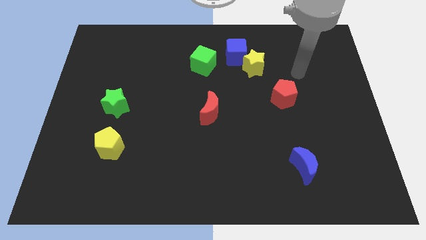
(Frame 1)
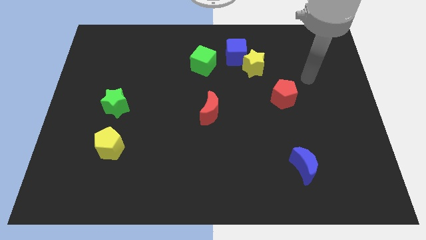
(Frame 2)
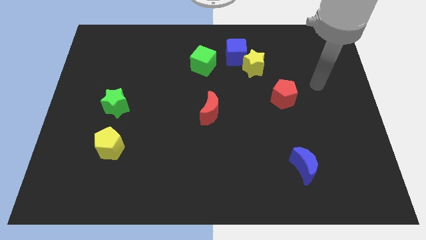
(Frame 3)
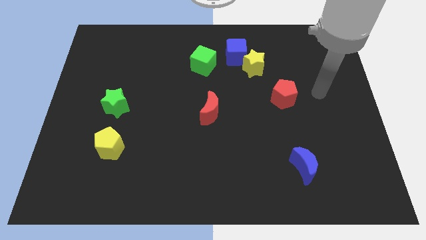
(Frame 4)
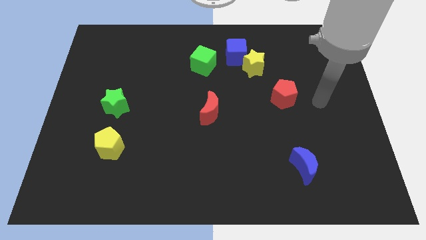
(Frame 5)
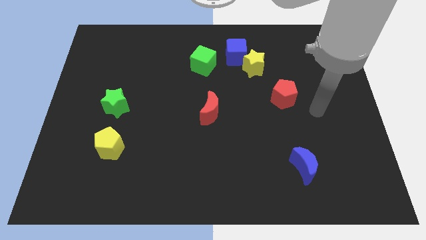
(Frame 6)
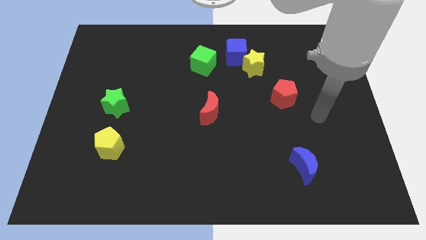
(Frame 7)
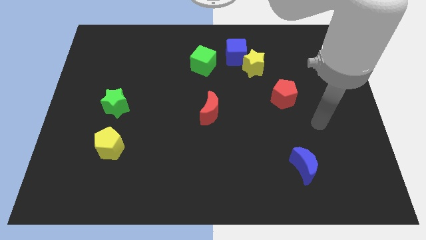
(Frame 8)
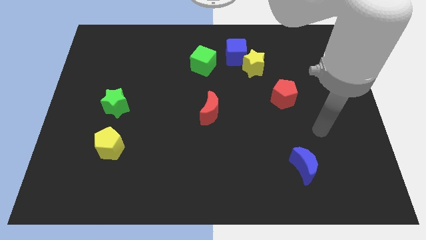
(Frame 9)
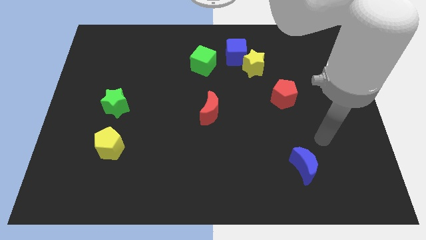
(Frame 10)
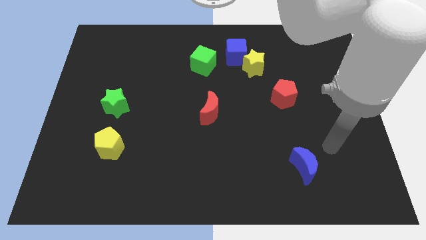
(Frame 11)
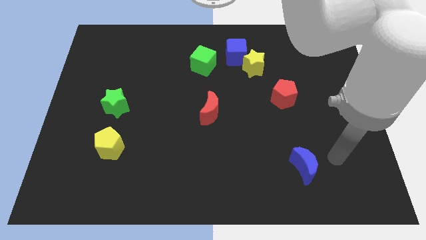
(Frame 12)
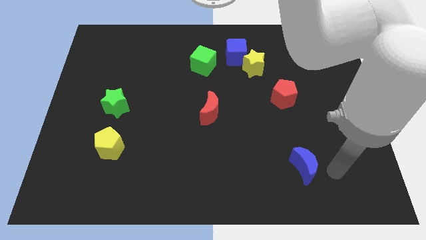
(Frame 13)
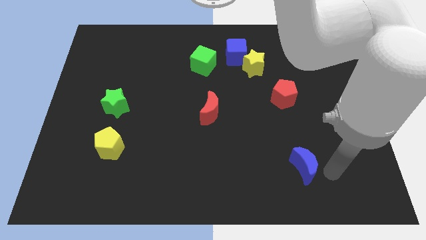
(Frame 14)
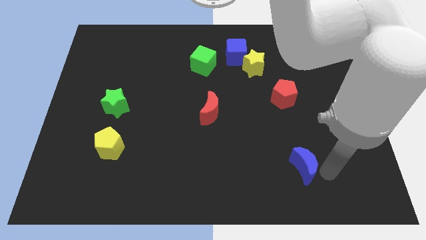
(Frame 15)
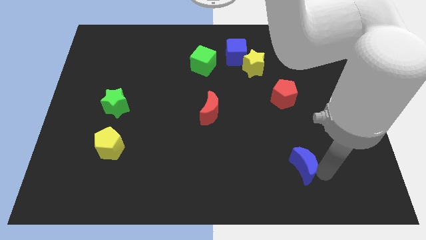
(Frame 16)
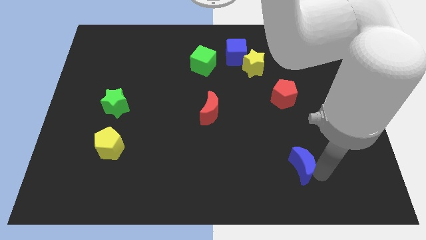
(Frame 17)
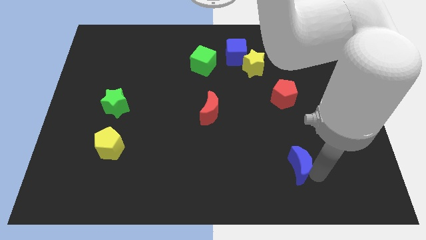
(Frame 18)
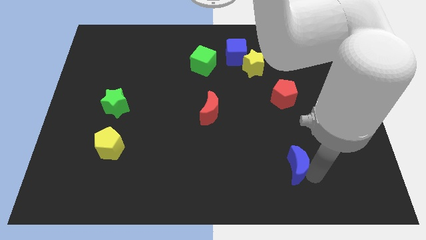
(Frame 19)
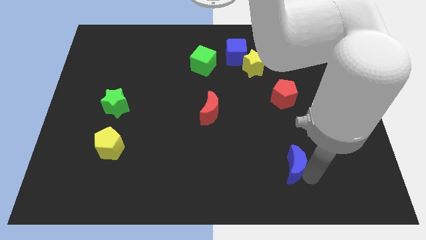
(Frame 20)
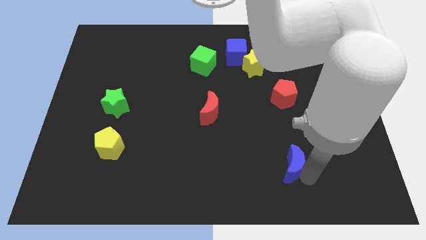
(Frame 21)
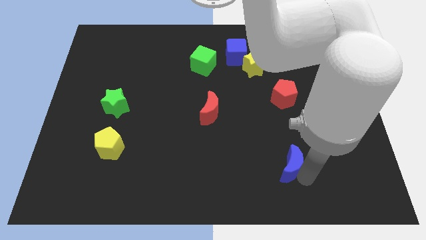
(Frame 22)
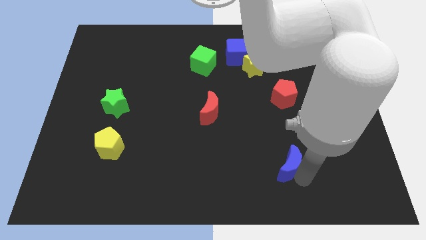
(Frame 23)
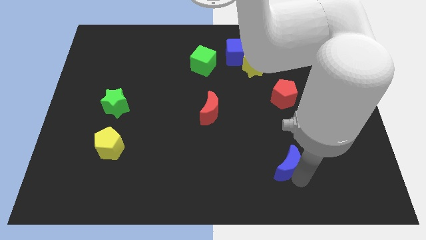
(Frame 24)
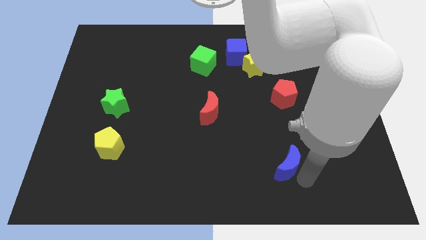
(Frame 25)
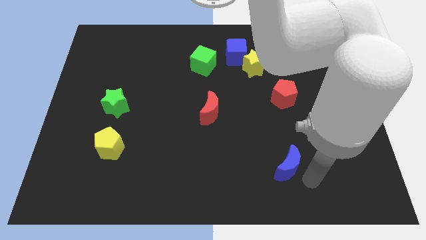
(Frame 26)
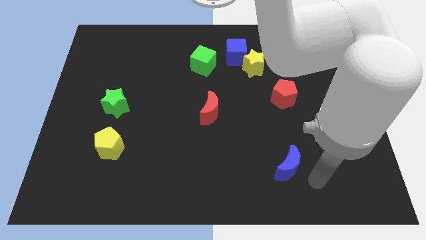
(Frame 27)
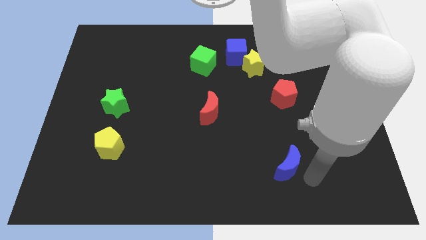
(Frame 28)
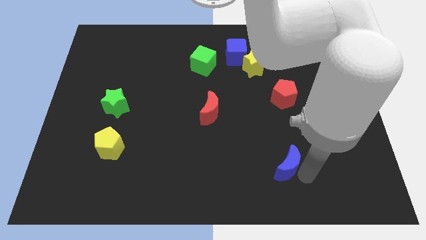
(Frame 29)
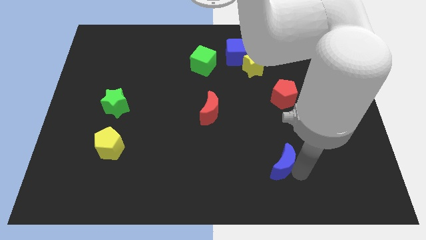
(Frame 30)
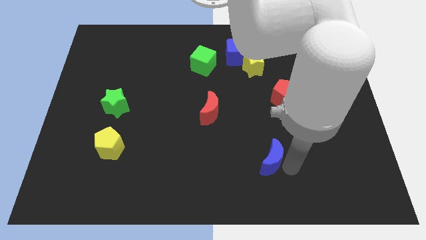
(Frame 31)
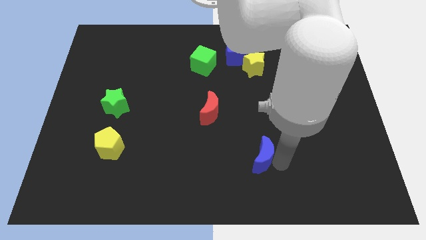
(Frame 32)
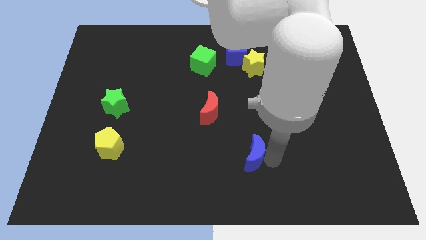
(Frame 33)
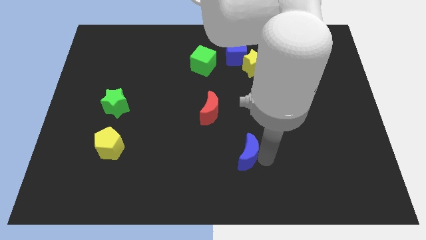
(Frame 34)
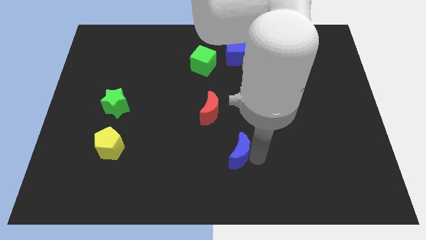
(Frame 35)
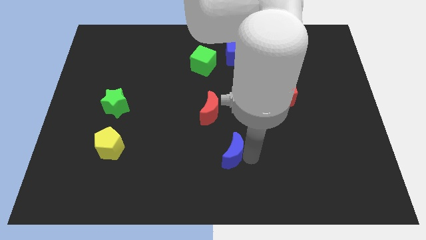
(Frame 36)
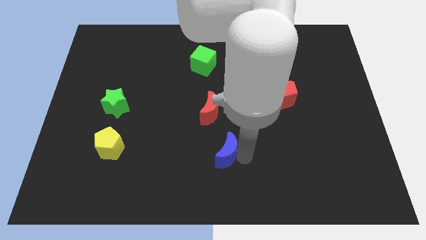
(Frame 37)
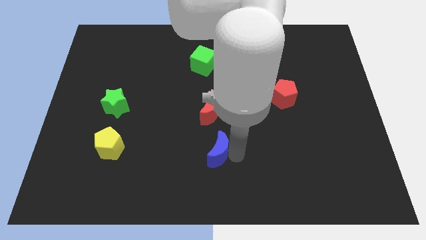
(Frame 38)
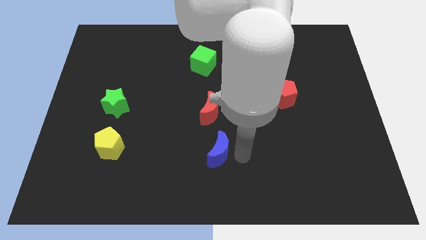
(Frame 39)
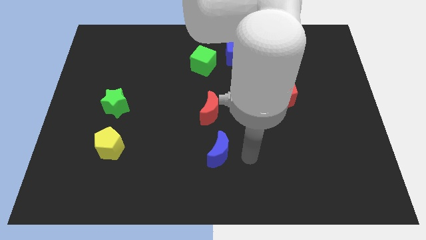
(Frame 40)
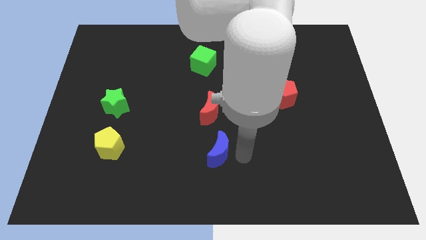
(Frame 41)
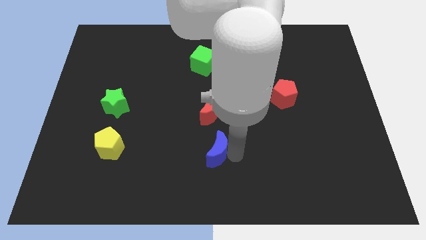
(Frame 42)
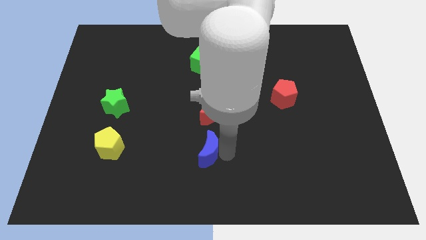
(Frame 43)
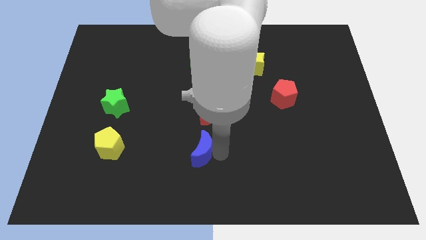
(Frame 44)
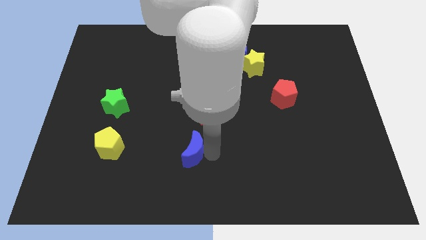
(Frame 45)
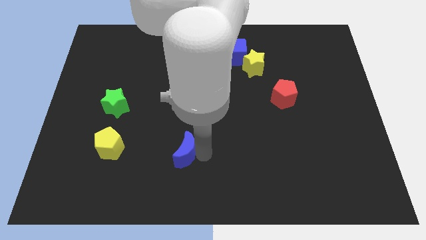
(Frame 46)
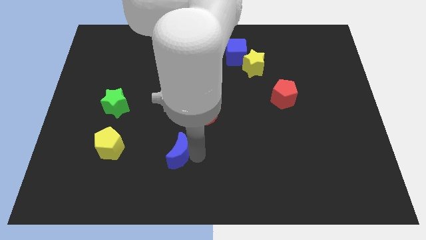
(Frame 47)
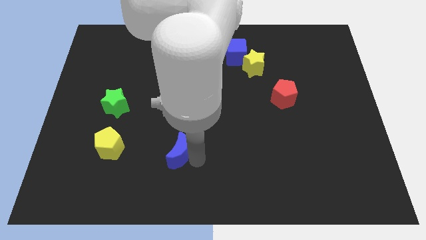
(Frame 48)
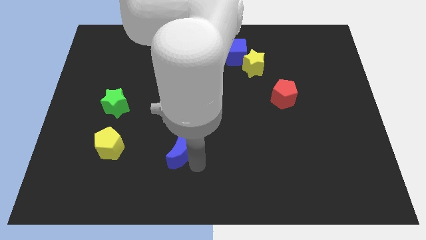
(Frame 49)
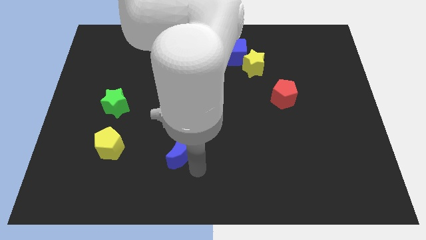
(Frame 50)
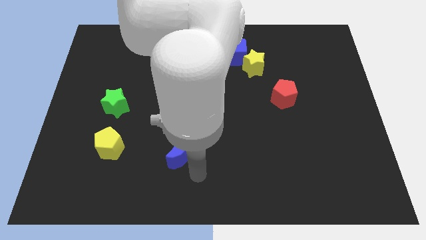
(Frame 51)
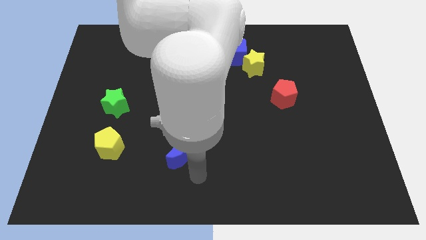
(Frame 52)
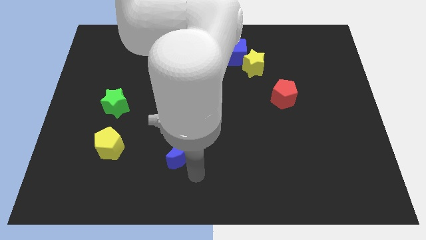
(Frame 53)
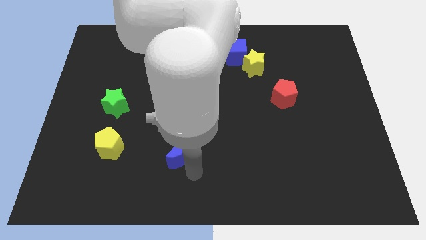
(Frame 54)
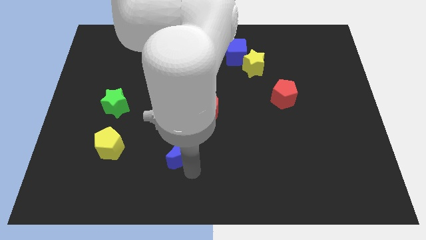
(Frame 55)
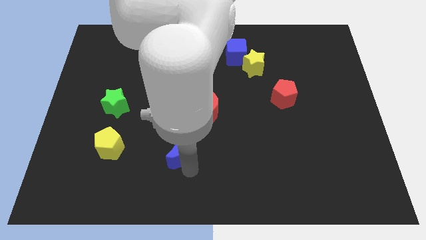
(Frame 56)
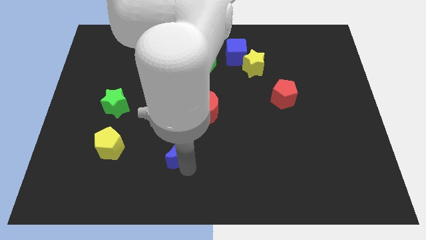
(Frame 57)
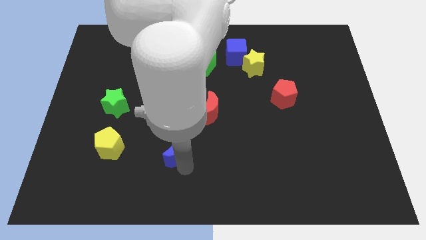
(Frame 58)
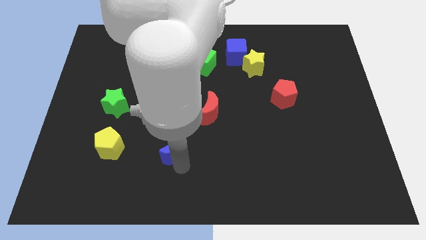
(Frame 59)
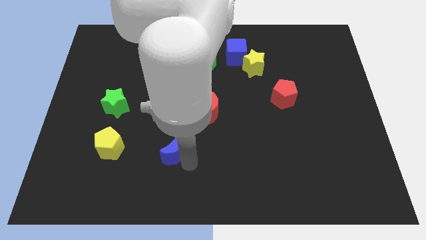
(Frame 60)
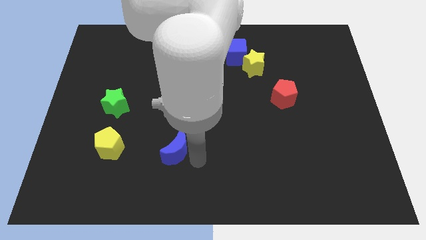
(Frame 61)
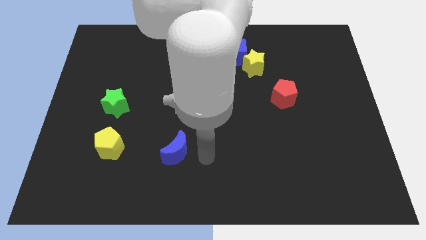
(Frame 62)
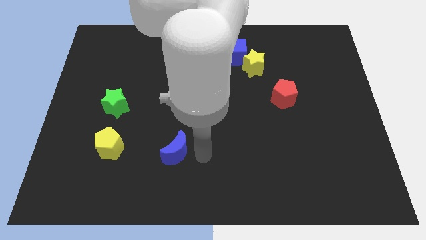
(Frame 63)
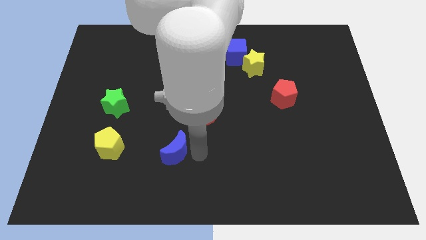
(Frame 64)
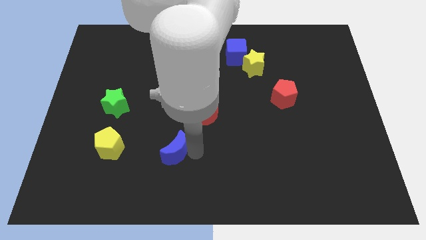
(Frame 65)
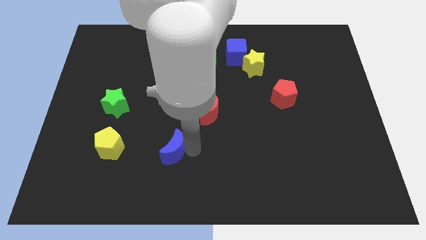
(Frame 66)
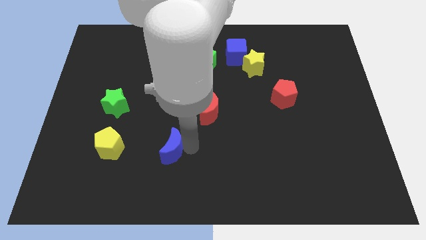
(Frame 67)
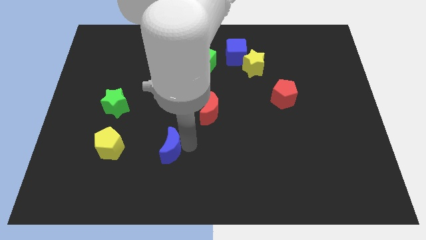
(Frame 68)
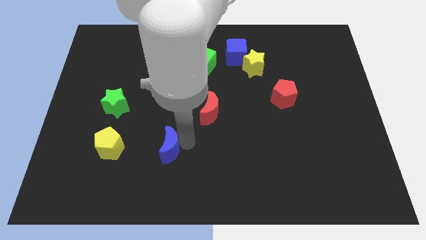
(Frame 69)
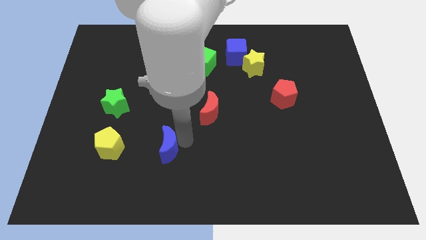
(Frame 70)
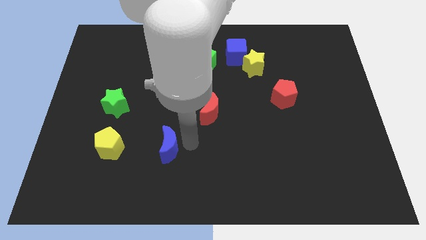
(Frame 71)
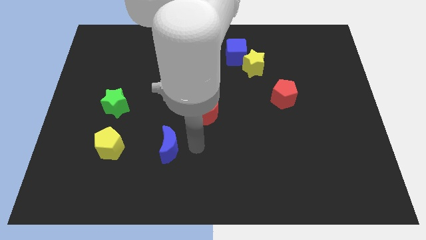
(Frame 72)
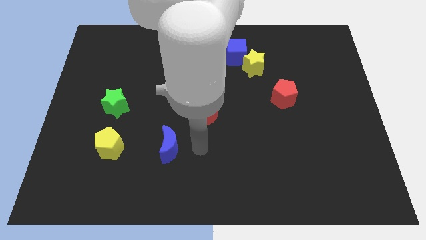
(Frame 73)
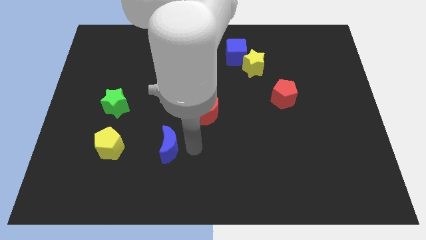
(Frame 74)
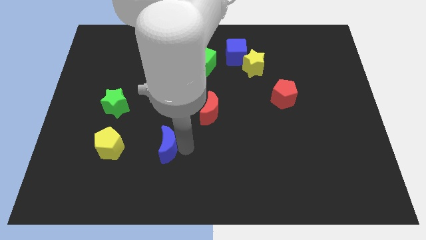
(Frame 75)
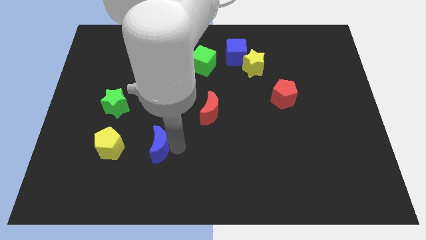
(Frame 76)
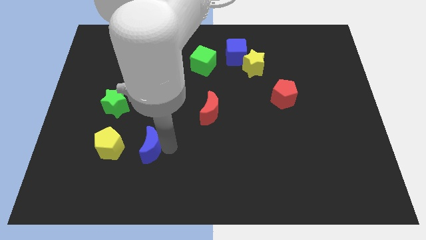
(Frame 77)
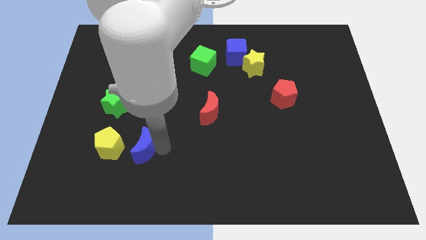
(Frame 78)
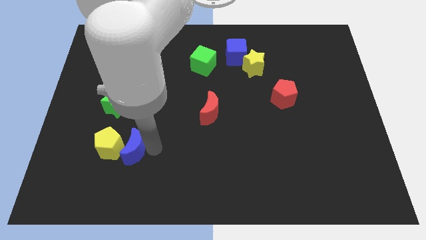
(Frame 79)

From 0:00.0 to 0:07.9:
slide the blue moon next to the yellow pentagon
